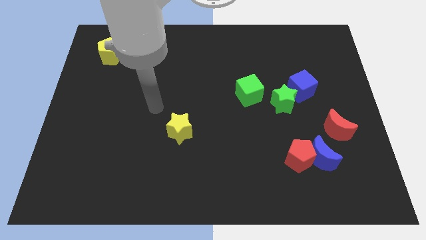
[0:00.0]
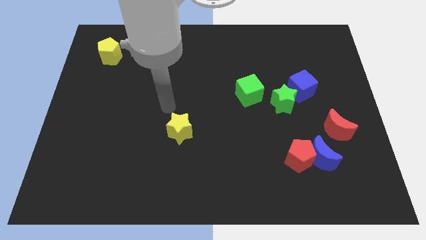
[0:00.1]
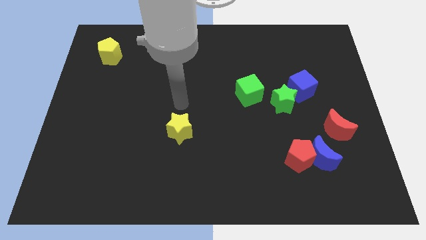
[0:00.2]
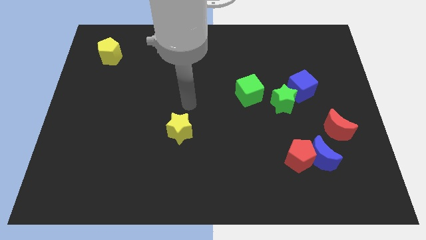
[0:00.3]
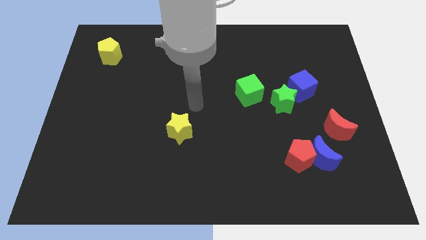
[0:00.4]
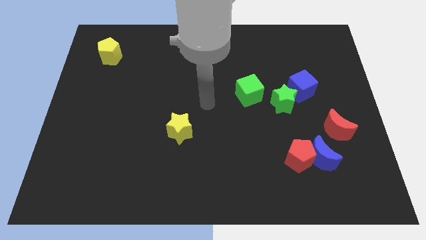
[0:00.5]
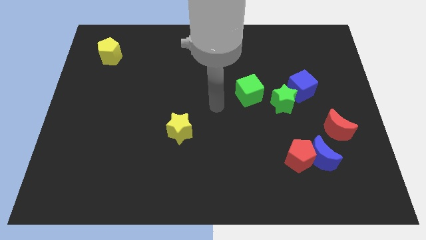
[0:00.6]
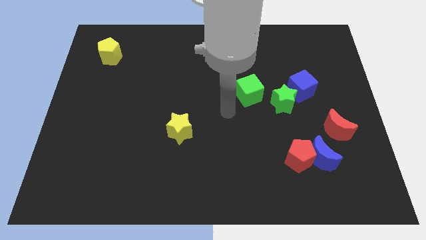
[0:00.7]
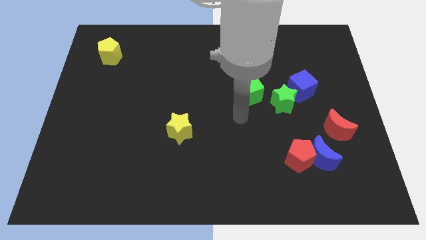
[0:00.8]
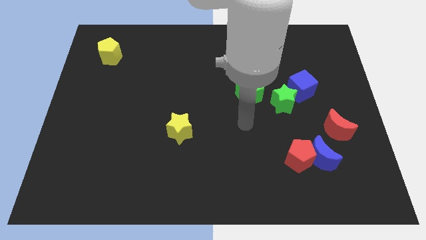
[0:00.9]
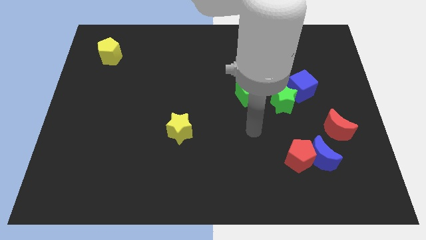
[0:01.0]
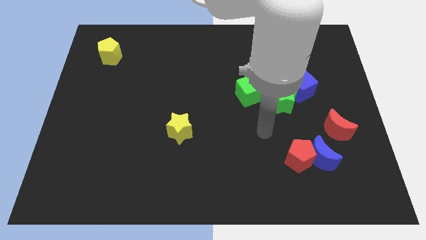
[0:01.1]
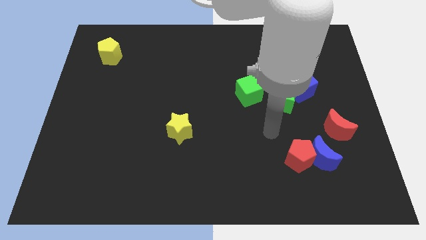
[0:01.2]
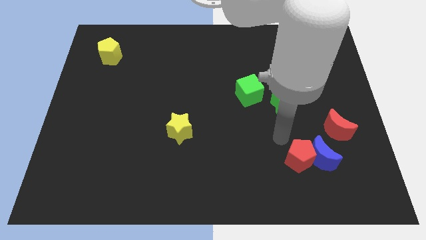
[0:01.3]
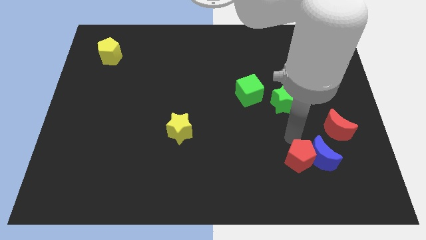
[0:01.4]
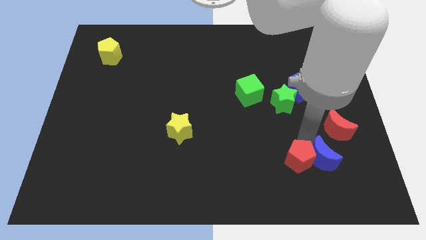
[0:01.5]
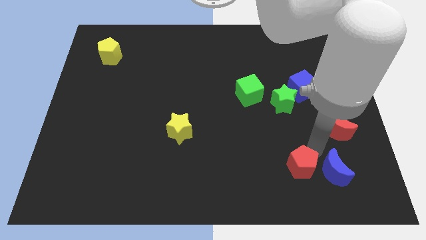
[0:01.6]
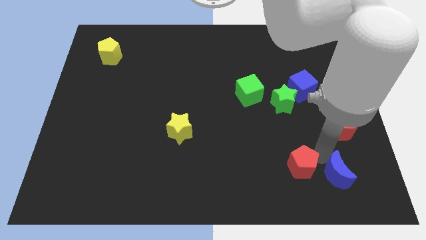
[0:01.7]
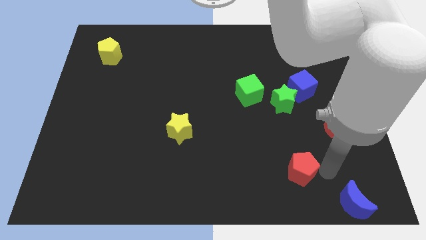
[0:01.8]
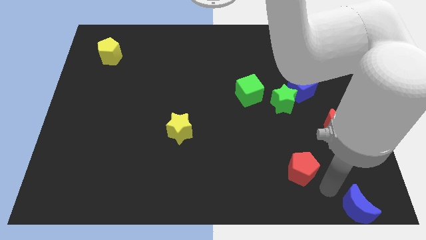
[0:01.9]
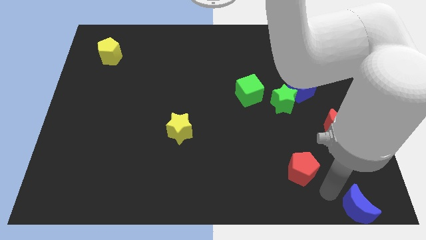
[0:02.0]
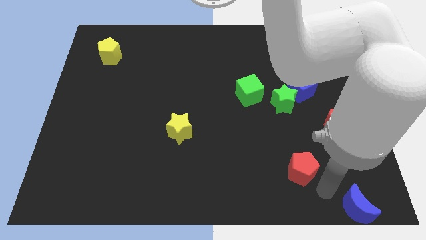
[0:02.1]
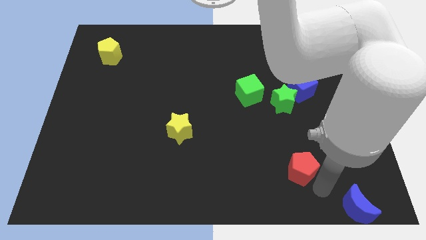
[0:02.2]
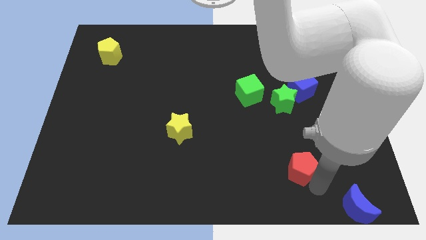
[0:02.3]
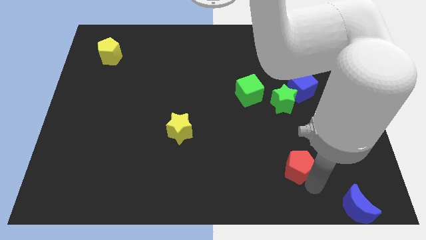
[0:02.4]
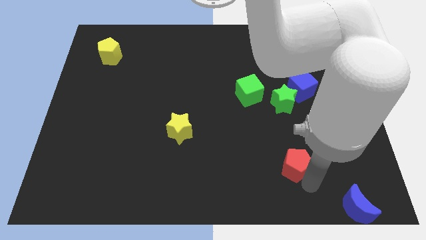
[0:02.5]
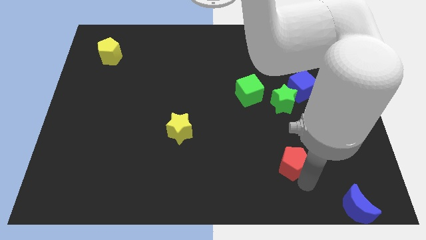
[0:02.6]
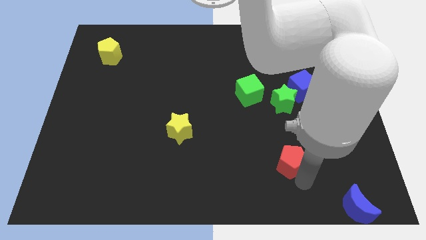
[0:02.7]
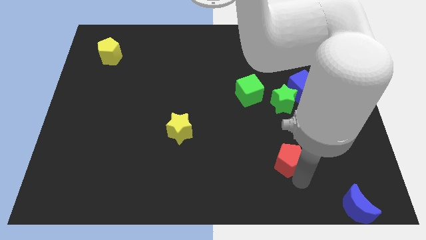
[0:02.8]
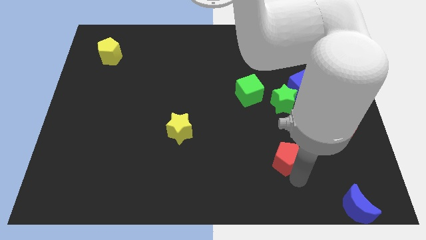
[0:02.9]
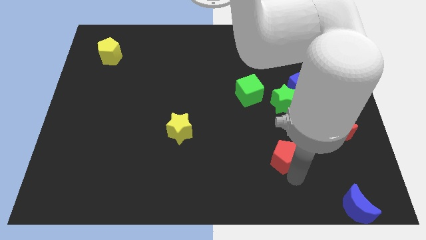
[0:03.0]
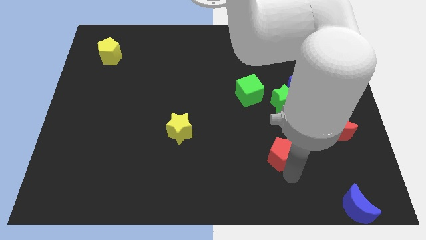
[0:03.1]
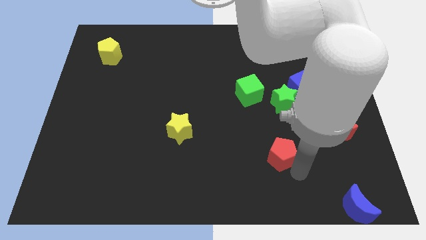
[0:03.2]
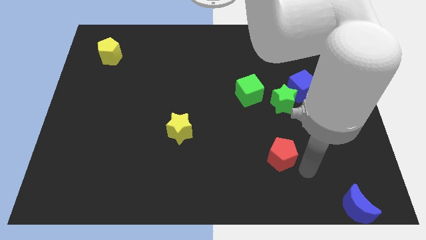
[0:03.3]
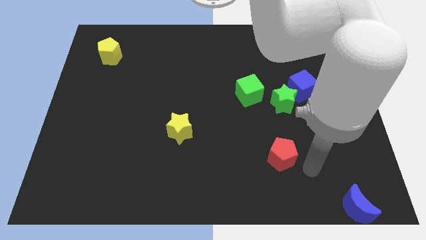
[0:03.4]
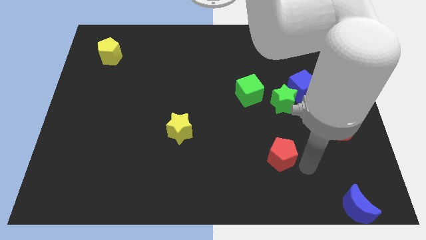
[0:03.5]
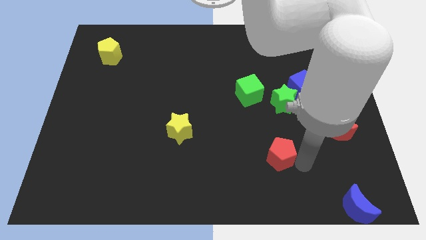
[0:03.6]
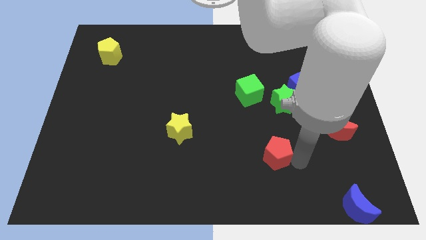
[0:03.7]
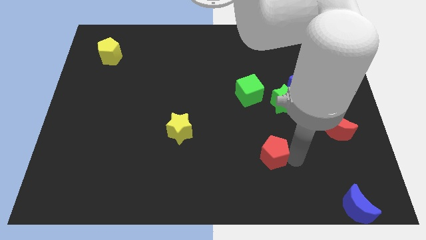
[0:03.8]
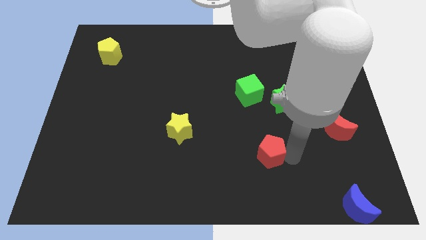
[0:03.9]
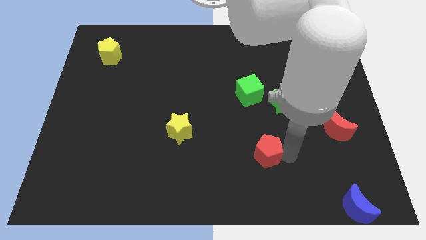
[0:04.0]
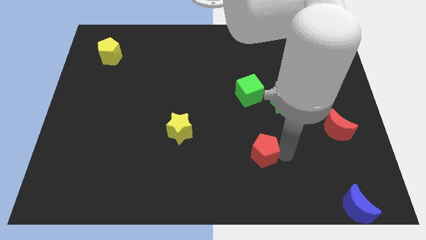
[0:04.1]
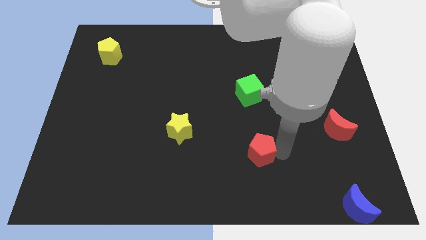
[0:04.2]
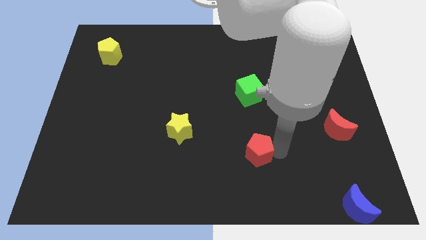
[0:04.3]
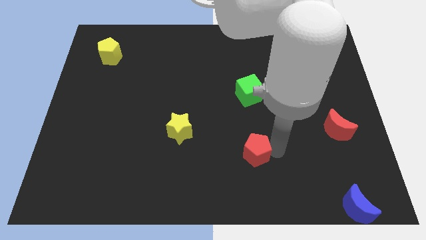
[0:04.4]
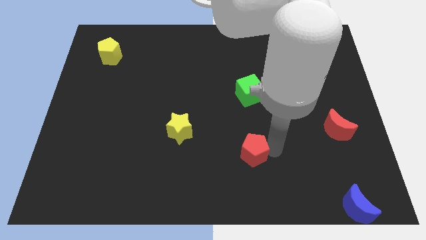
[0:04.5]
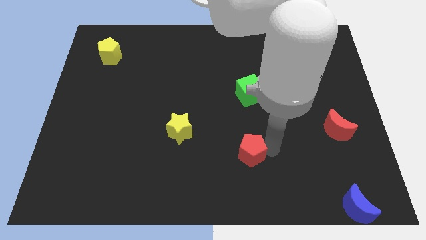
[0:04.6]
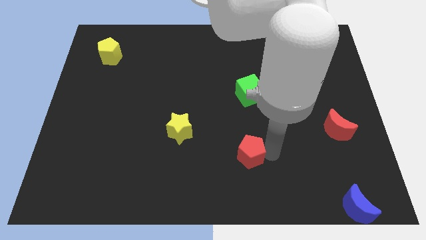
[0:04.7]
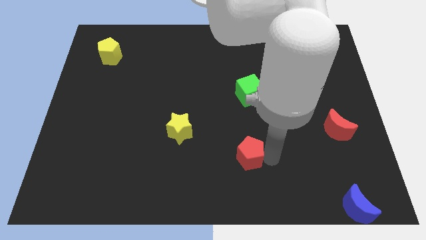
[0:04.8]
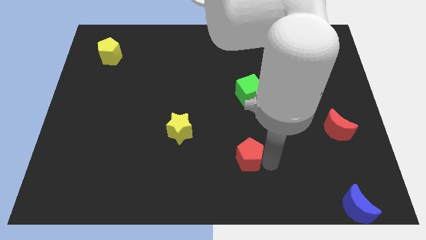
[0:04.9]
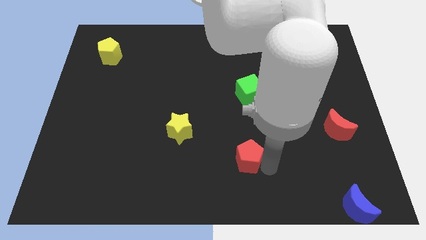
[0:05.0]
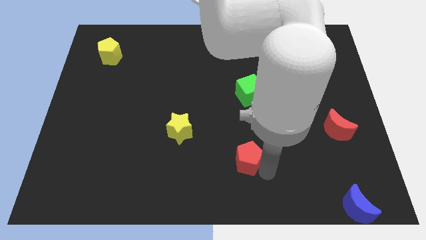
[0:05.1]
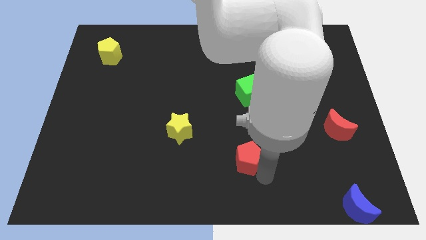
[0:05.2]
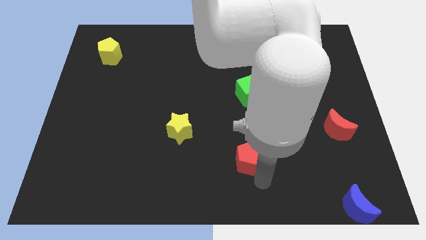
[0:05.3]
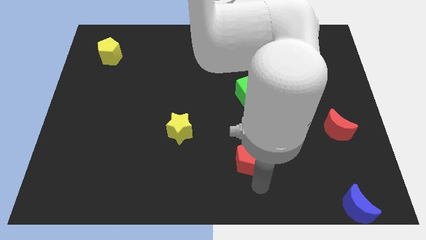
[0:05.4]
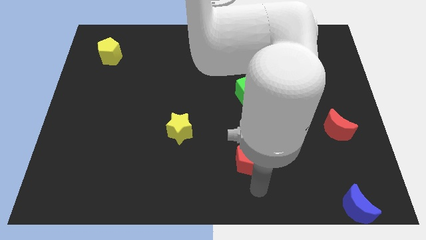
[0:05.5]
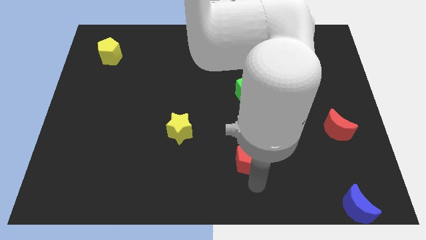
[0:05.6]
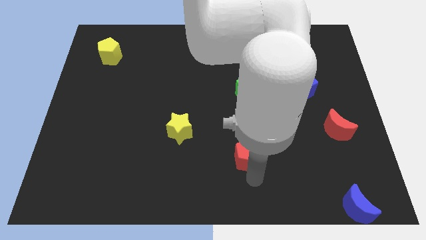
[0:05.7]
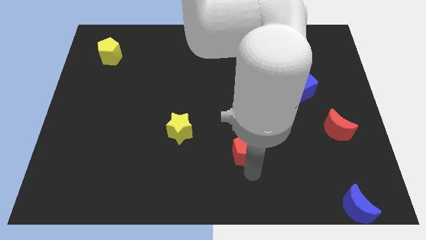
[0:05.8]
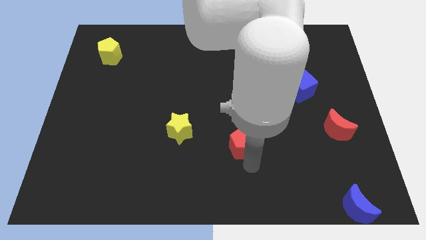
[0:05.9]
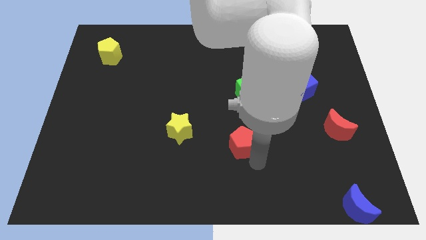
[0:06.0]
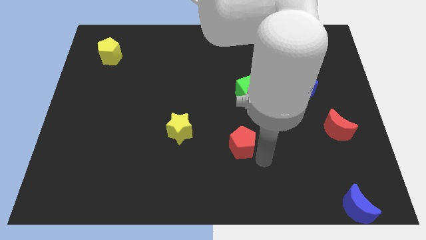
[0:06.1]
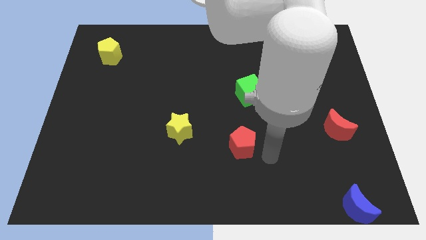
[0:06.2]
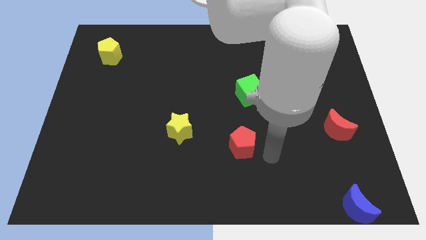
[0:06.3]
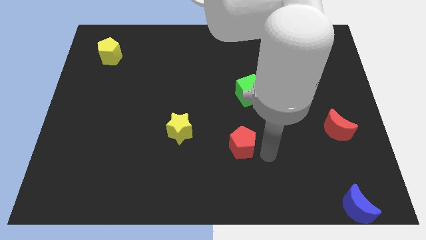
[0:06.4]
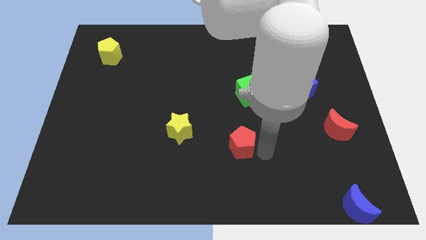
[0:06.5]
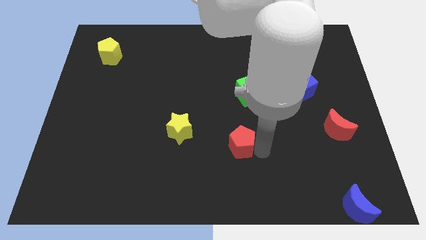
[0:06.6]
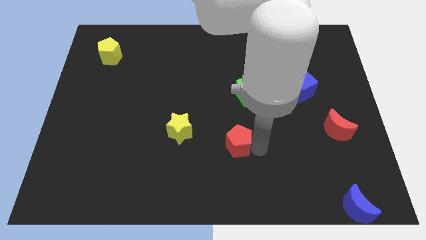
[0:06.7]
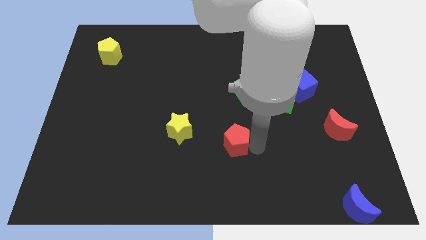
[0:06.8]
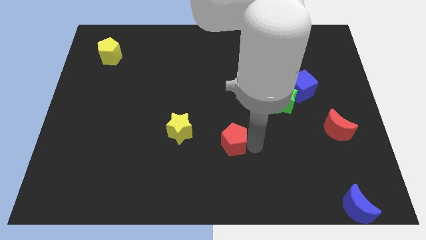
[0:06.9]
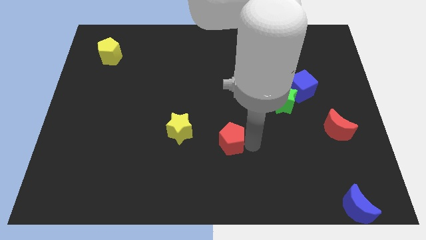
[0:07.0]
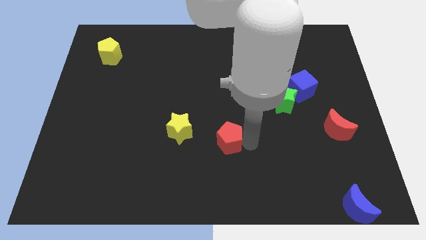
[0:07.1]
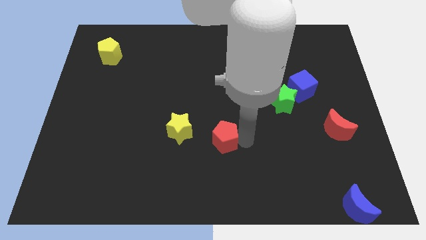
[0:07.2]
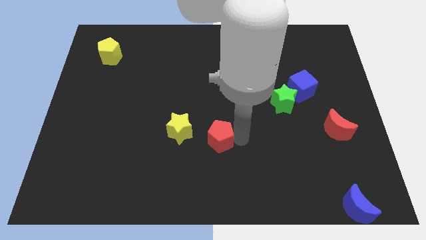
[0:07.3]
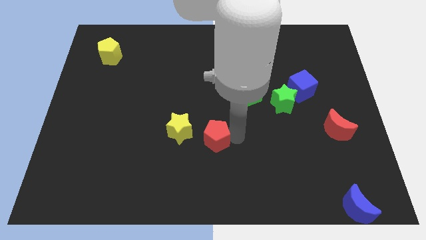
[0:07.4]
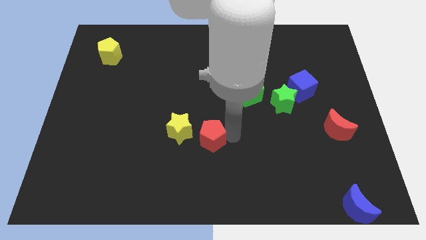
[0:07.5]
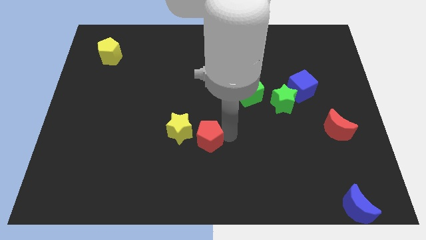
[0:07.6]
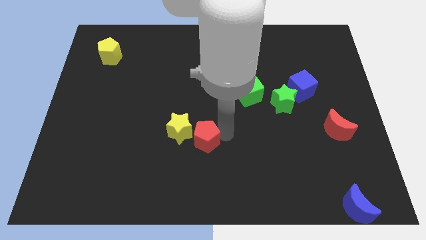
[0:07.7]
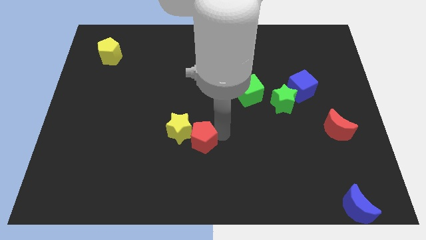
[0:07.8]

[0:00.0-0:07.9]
put the red pentagon towards the yellow star
